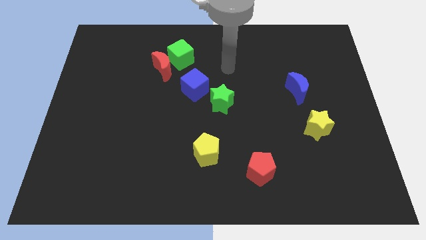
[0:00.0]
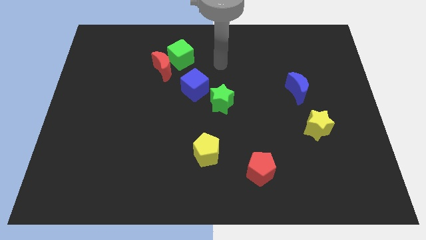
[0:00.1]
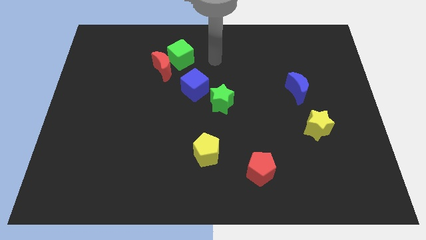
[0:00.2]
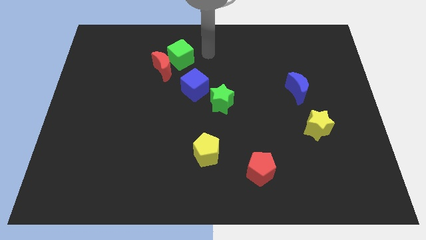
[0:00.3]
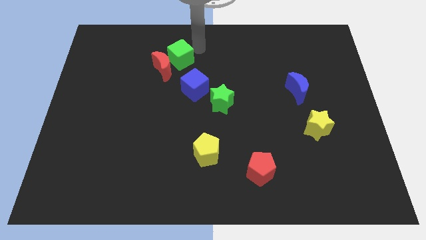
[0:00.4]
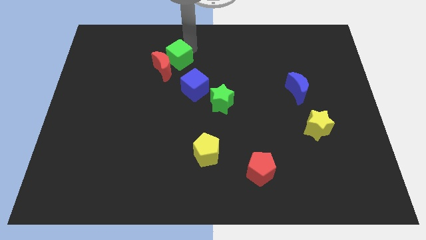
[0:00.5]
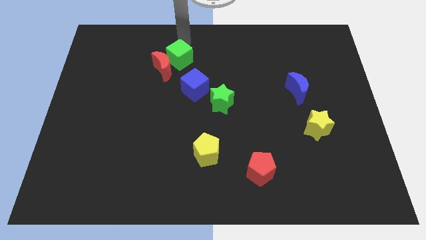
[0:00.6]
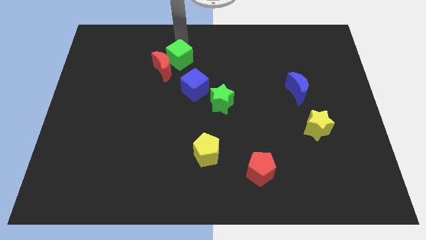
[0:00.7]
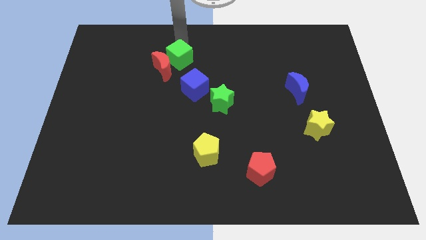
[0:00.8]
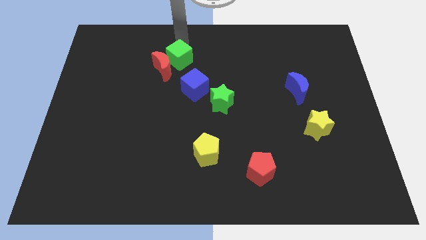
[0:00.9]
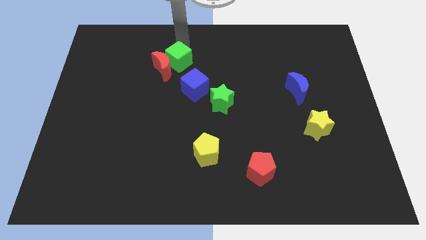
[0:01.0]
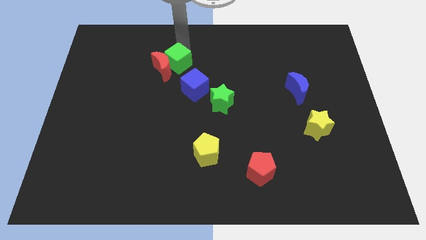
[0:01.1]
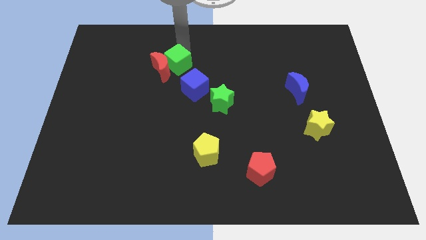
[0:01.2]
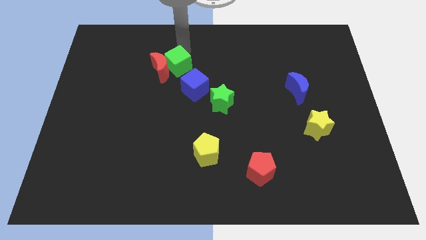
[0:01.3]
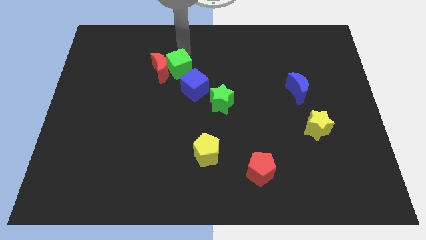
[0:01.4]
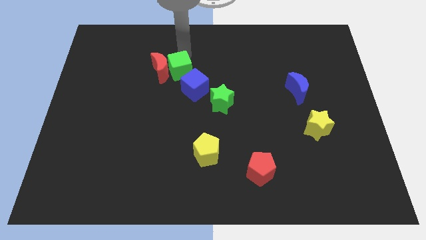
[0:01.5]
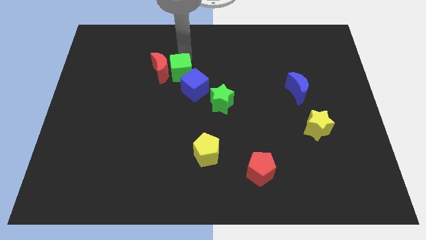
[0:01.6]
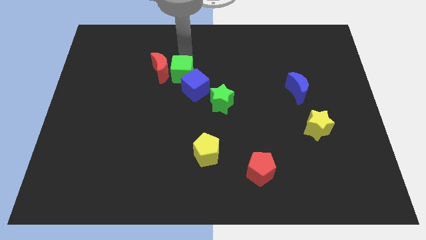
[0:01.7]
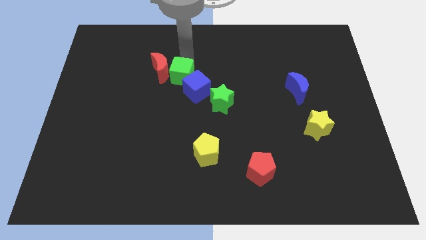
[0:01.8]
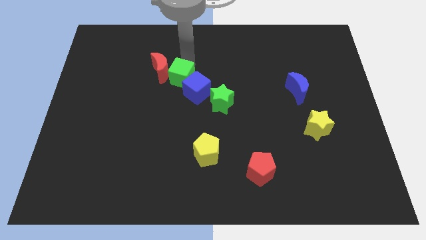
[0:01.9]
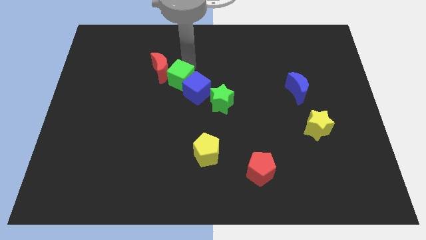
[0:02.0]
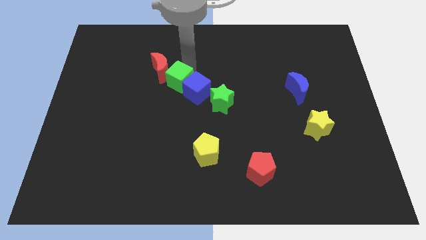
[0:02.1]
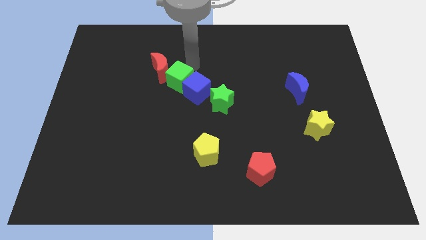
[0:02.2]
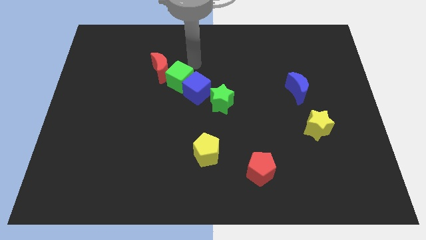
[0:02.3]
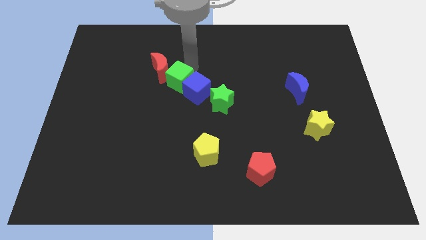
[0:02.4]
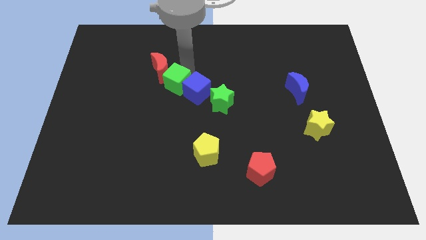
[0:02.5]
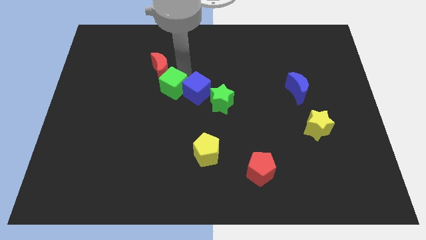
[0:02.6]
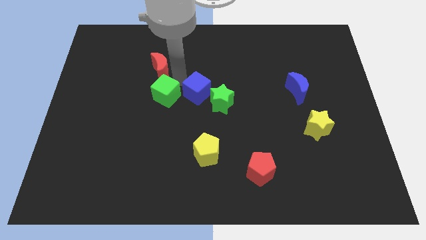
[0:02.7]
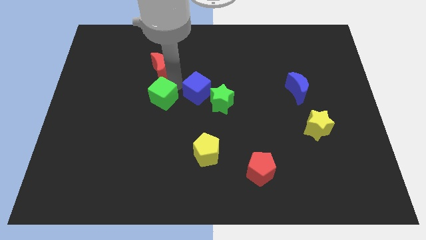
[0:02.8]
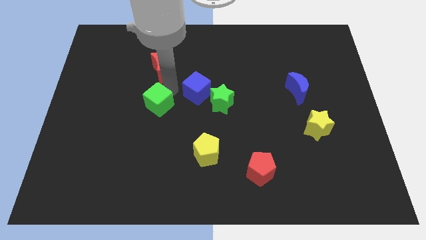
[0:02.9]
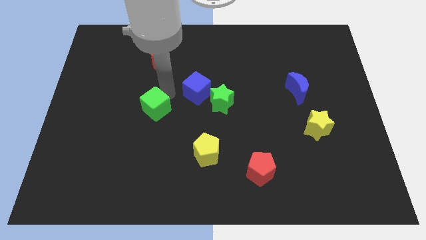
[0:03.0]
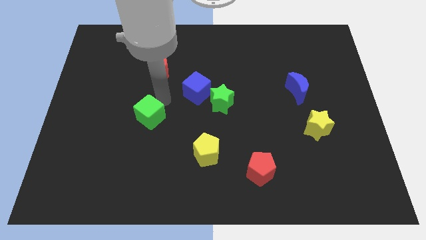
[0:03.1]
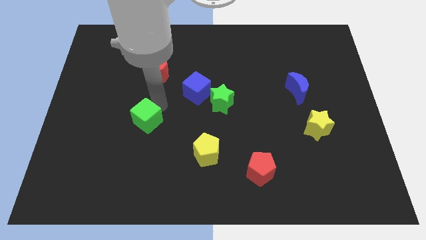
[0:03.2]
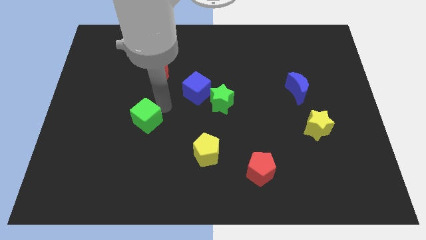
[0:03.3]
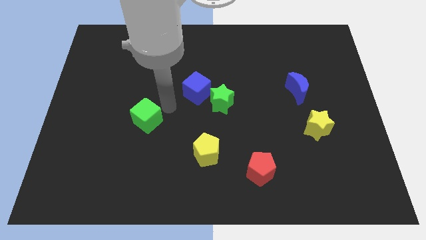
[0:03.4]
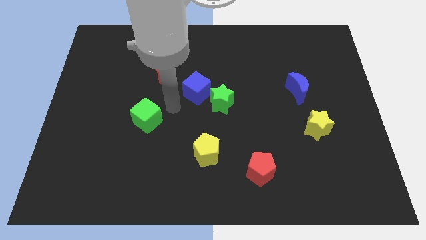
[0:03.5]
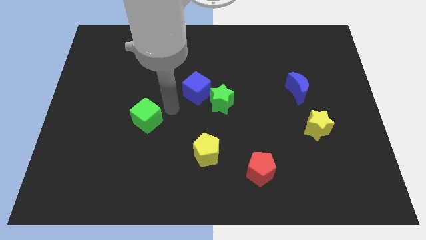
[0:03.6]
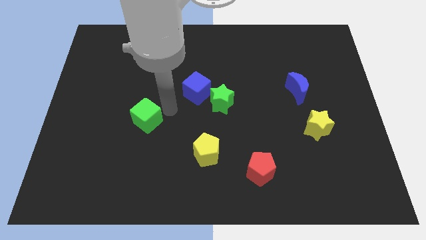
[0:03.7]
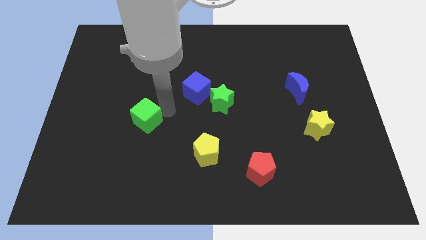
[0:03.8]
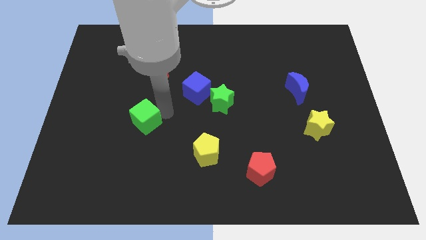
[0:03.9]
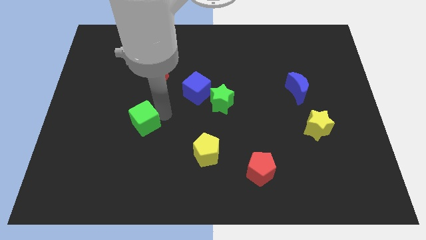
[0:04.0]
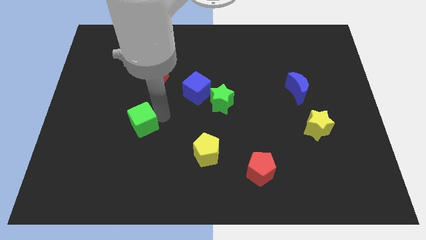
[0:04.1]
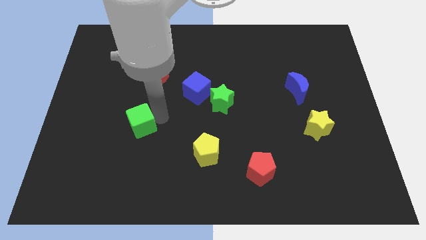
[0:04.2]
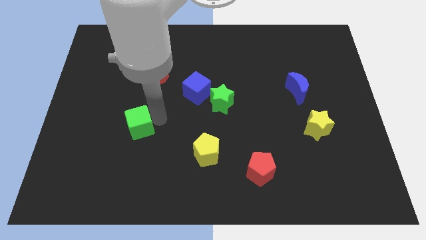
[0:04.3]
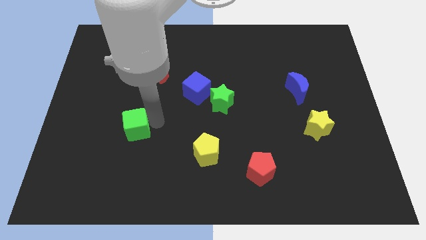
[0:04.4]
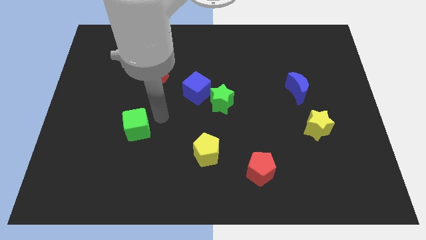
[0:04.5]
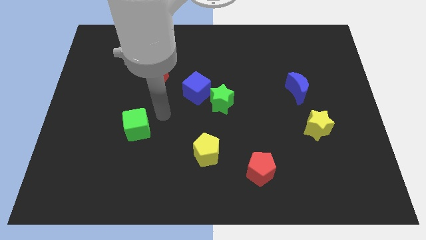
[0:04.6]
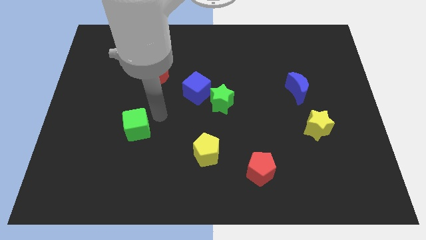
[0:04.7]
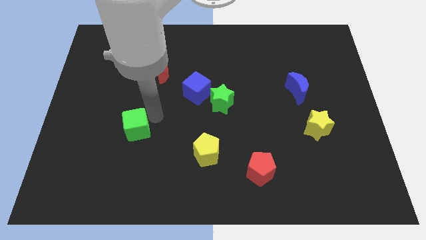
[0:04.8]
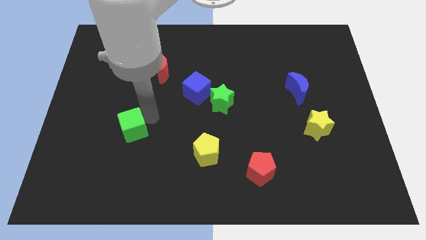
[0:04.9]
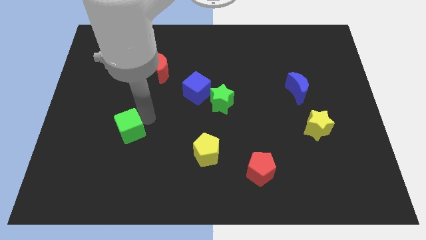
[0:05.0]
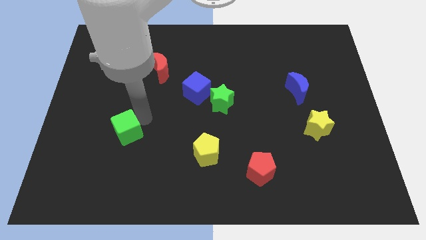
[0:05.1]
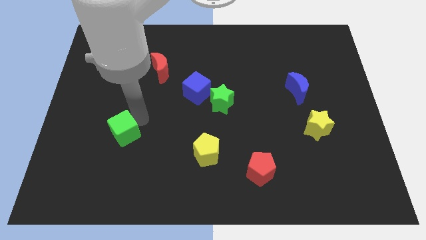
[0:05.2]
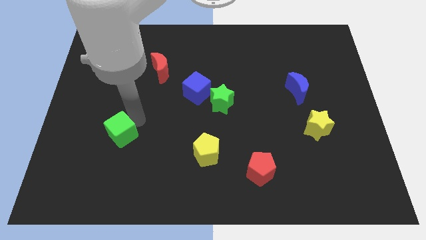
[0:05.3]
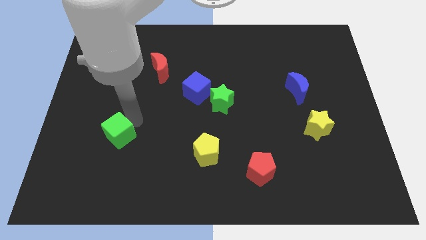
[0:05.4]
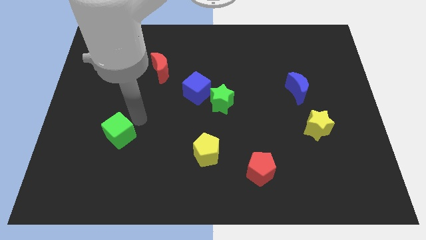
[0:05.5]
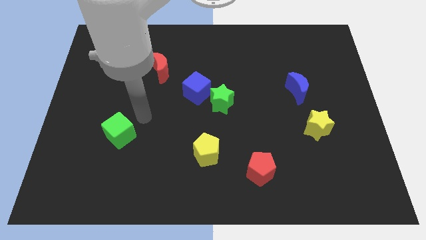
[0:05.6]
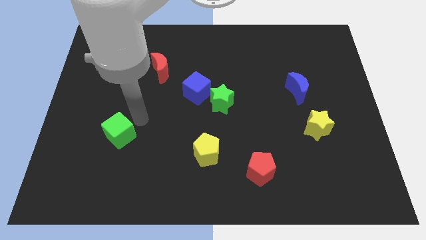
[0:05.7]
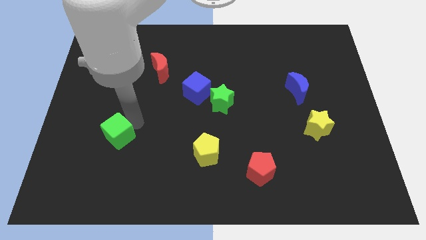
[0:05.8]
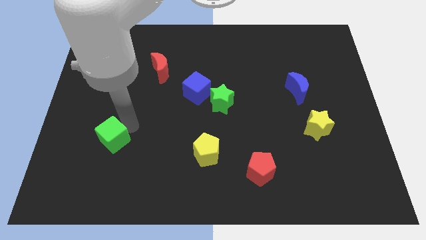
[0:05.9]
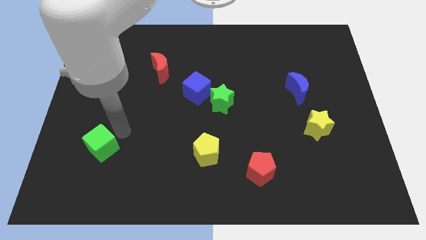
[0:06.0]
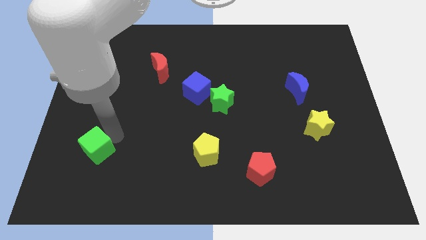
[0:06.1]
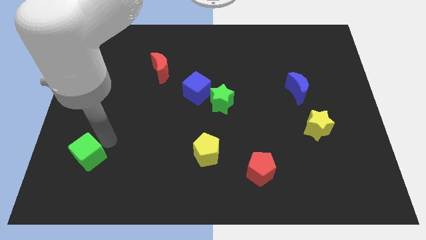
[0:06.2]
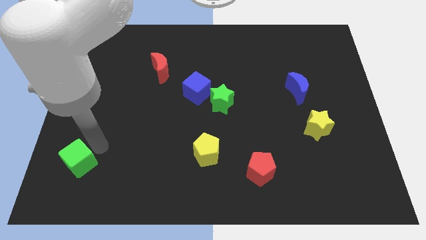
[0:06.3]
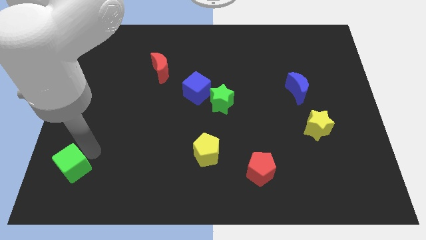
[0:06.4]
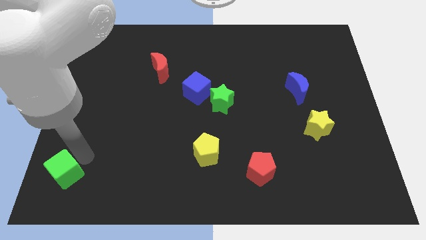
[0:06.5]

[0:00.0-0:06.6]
put the green cube to the bottom left corner
